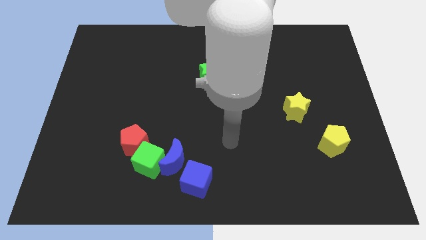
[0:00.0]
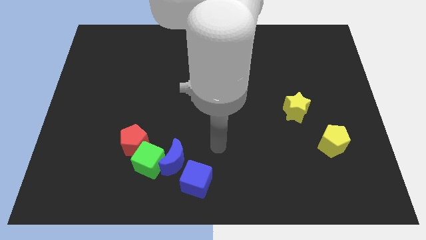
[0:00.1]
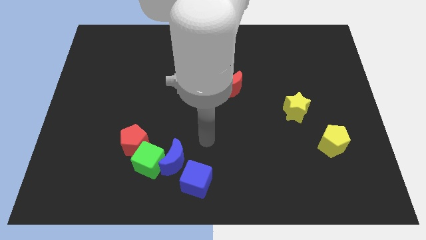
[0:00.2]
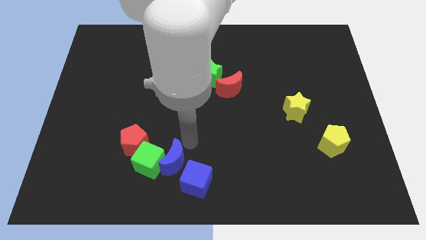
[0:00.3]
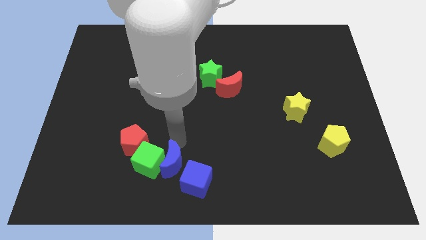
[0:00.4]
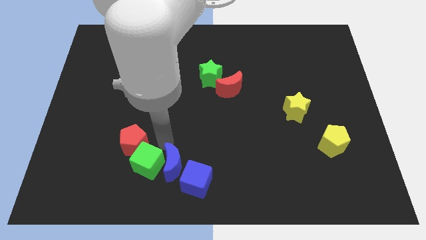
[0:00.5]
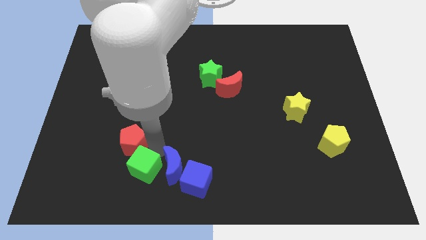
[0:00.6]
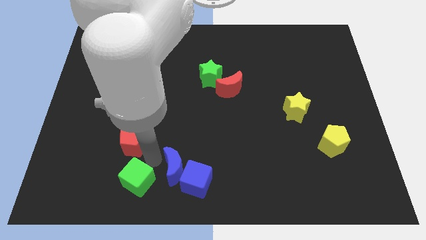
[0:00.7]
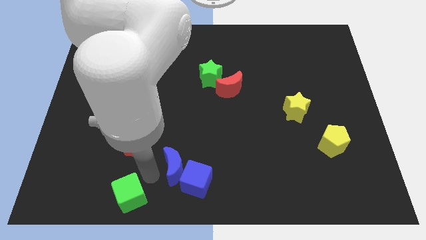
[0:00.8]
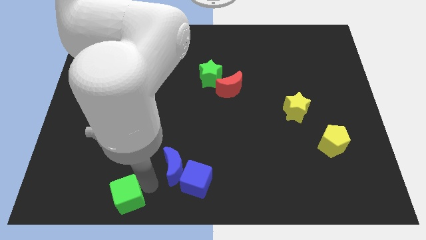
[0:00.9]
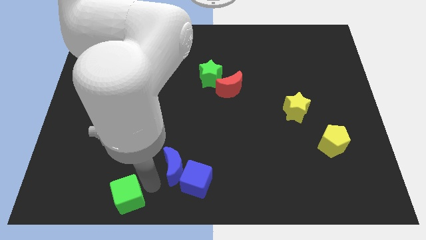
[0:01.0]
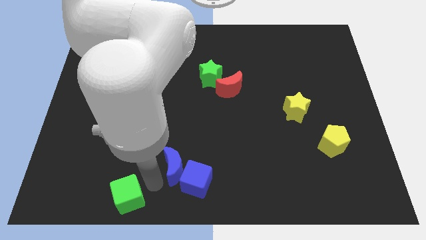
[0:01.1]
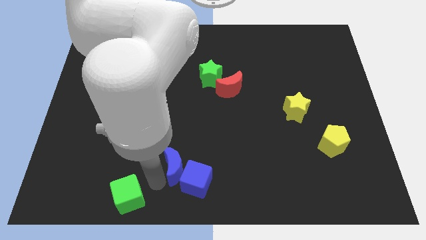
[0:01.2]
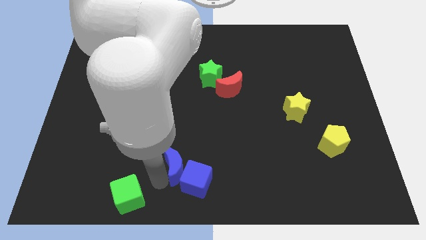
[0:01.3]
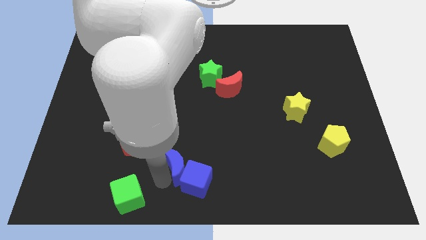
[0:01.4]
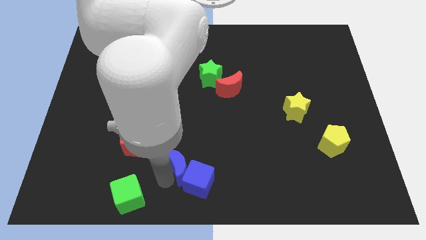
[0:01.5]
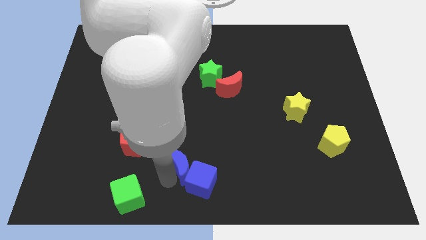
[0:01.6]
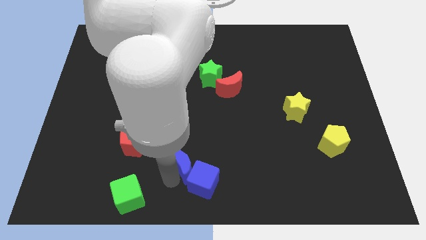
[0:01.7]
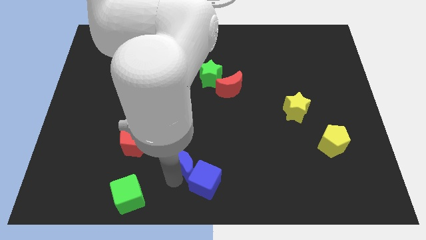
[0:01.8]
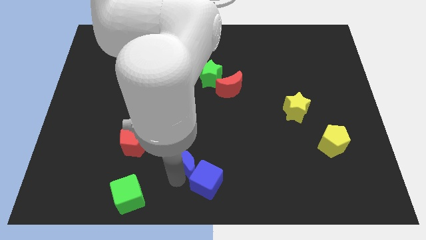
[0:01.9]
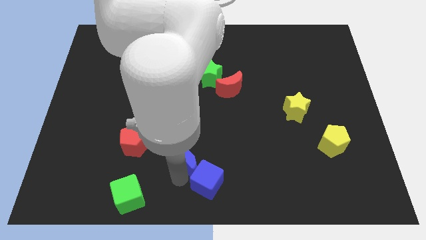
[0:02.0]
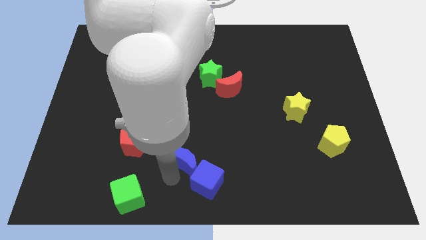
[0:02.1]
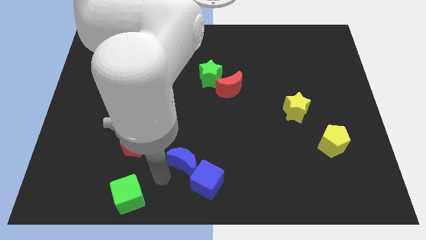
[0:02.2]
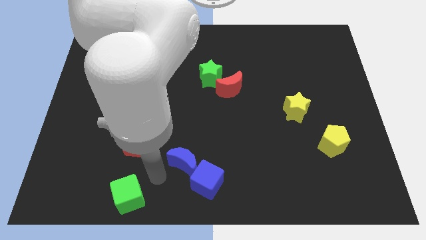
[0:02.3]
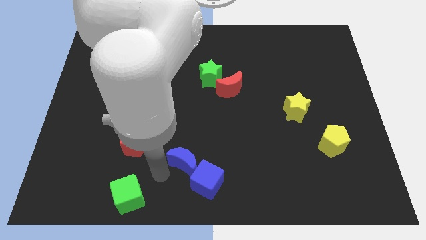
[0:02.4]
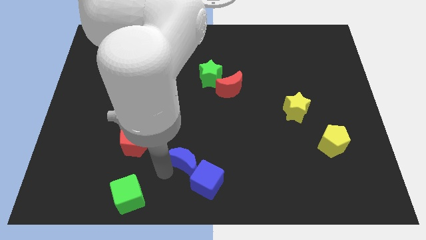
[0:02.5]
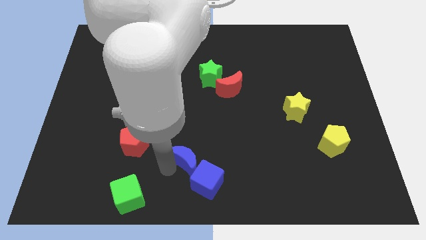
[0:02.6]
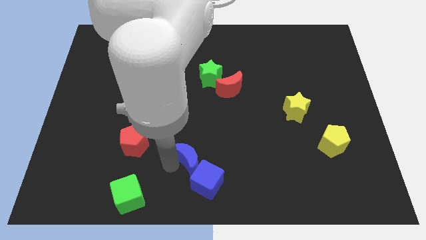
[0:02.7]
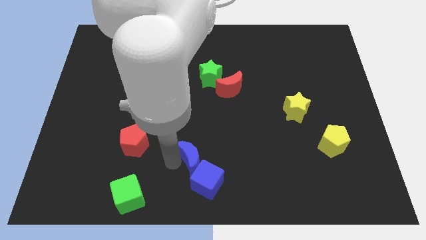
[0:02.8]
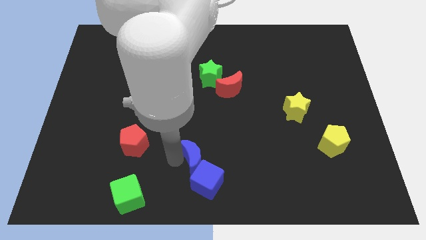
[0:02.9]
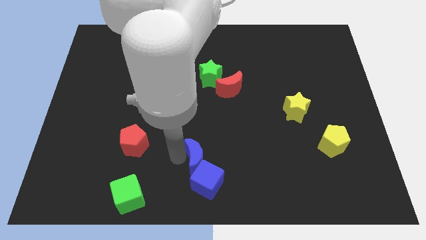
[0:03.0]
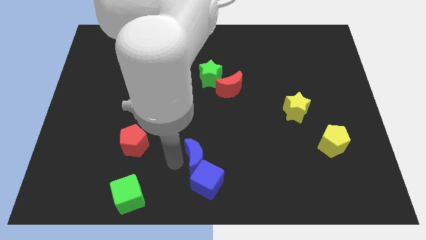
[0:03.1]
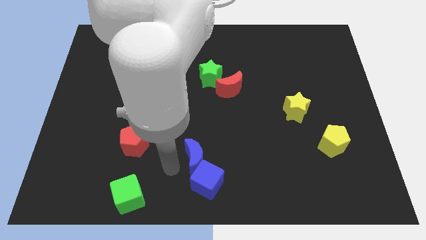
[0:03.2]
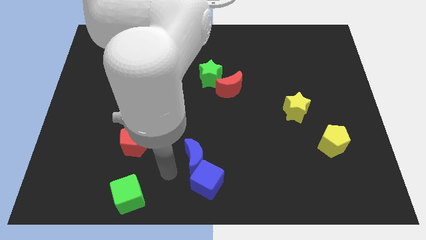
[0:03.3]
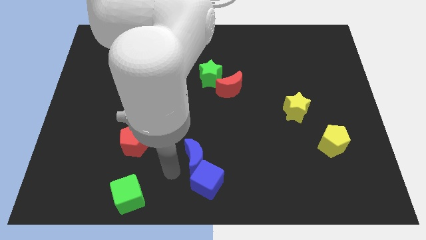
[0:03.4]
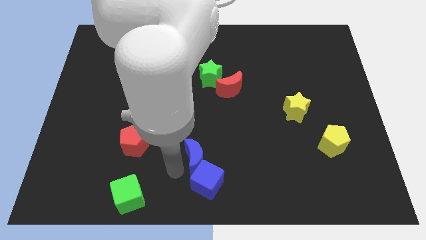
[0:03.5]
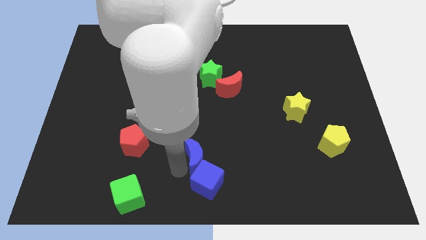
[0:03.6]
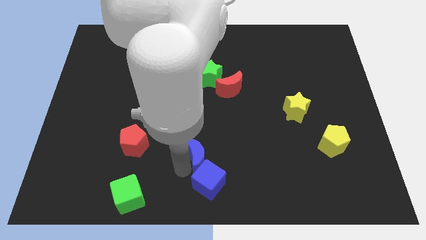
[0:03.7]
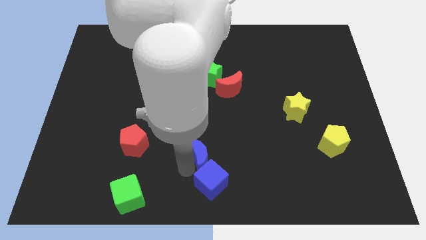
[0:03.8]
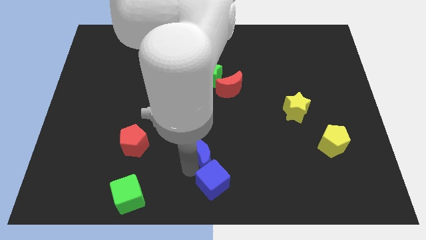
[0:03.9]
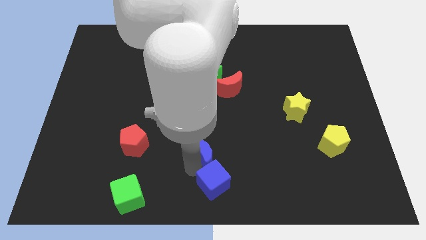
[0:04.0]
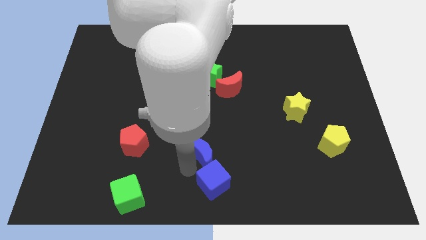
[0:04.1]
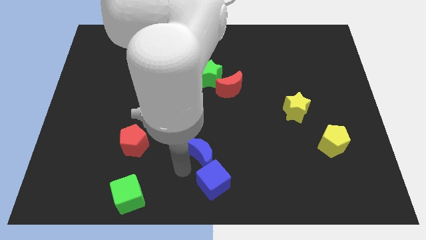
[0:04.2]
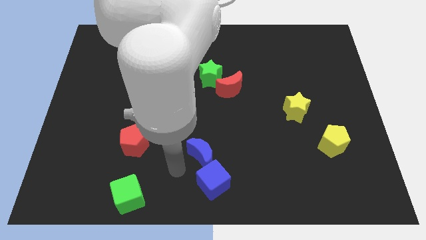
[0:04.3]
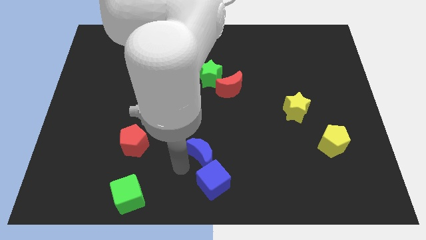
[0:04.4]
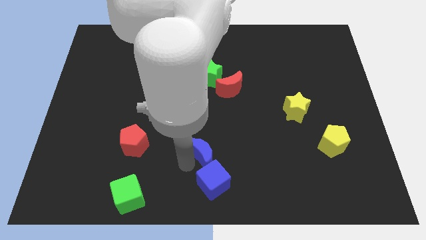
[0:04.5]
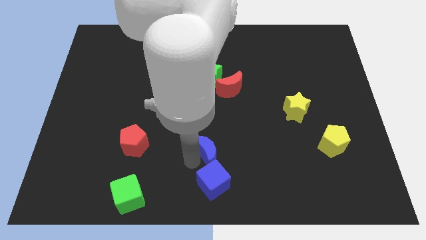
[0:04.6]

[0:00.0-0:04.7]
move the blue moon to the right somewhat

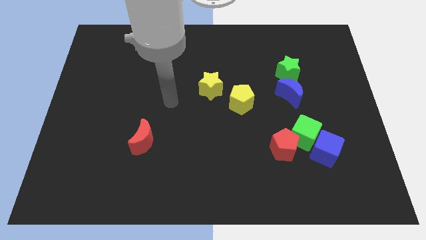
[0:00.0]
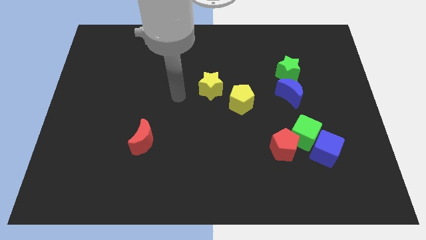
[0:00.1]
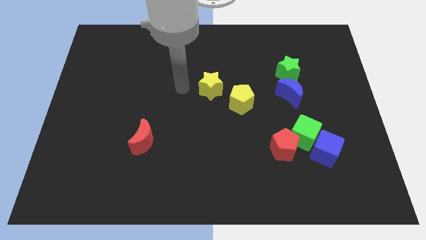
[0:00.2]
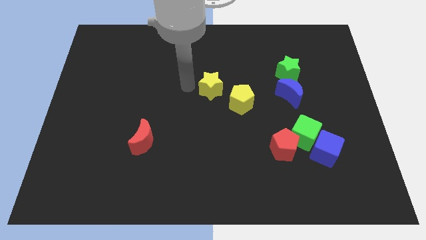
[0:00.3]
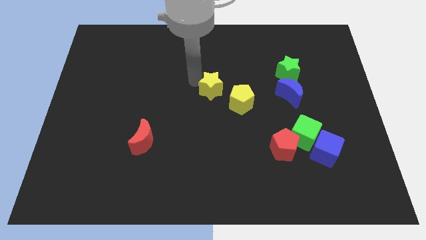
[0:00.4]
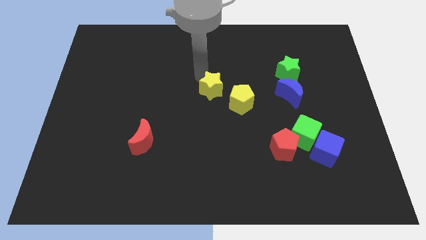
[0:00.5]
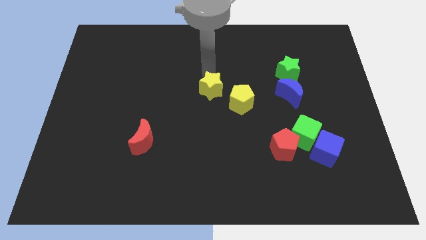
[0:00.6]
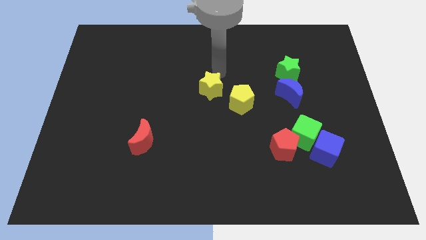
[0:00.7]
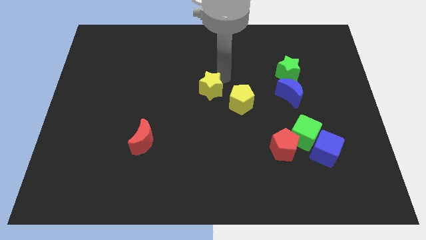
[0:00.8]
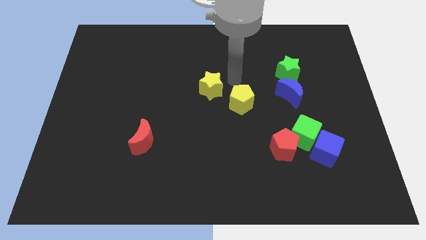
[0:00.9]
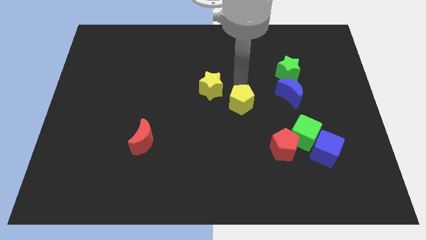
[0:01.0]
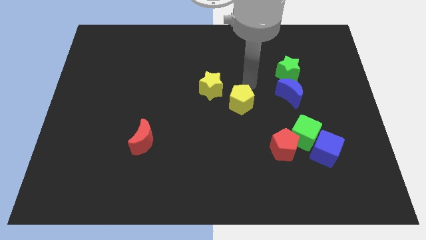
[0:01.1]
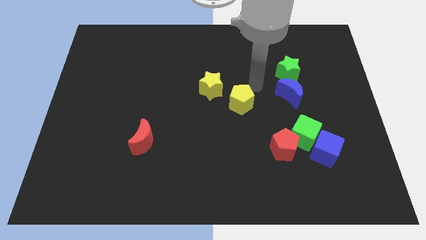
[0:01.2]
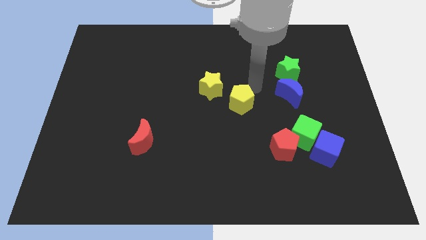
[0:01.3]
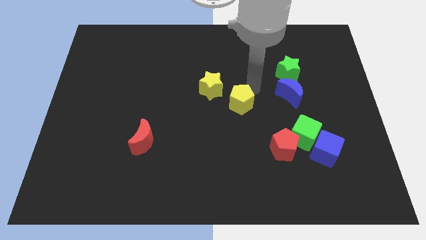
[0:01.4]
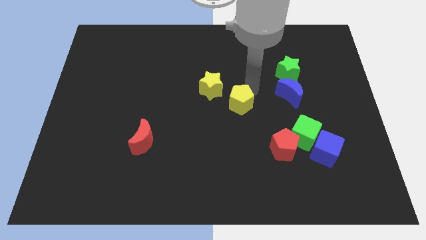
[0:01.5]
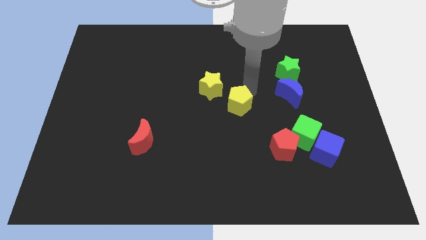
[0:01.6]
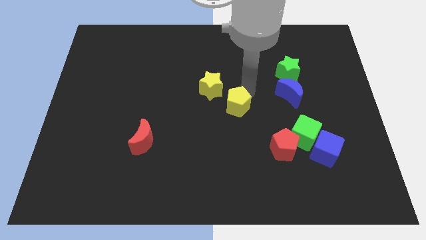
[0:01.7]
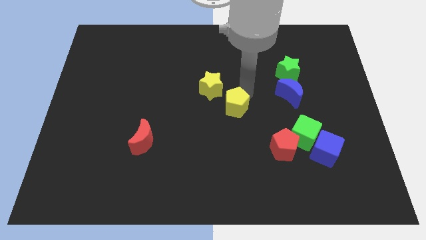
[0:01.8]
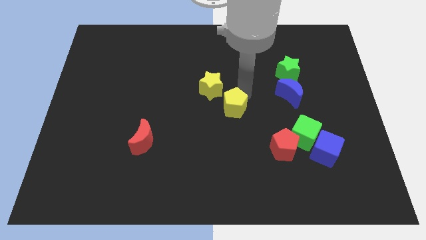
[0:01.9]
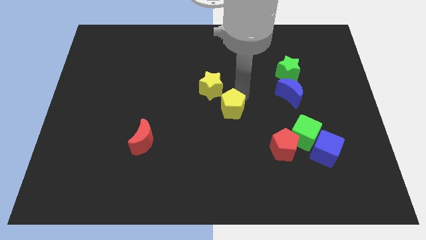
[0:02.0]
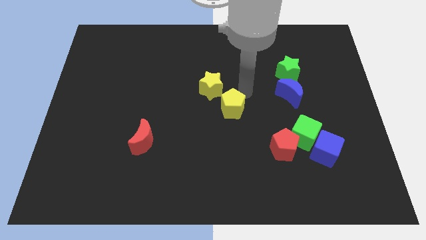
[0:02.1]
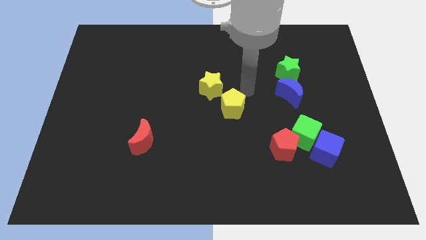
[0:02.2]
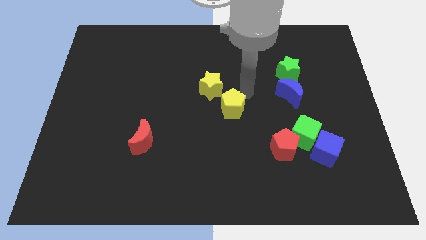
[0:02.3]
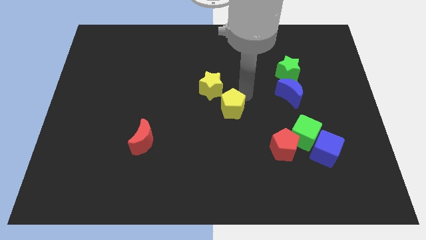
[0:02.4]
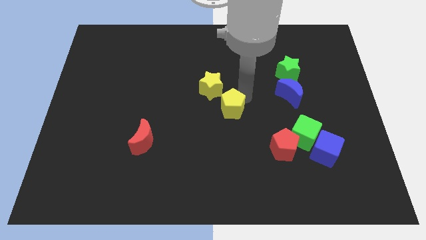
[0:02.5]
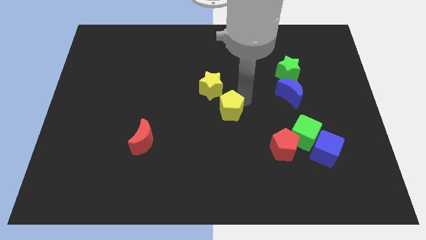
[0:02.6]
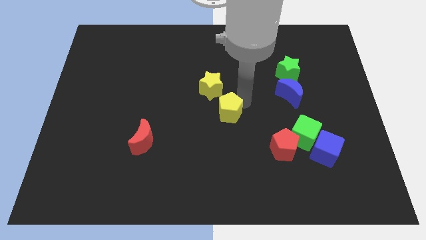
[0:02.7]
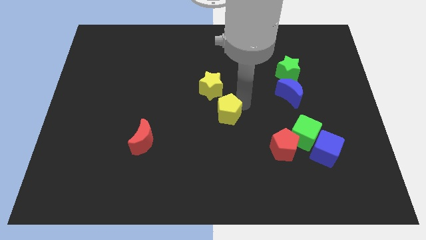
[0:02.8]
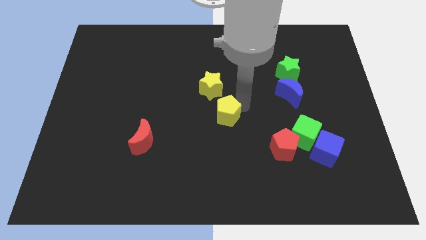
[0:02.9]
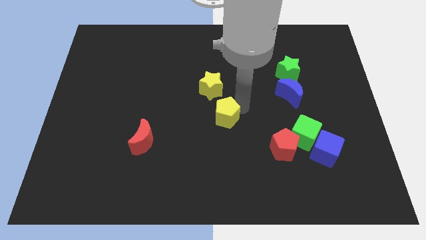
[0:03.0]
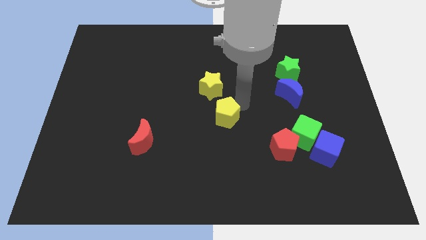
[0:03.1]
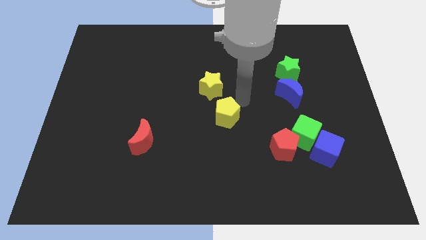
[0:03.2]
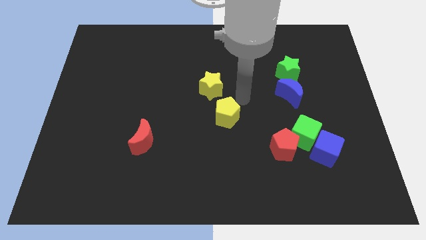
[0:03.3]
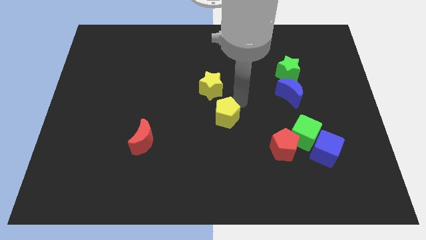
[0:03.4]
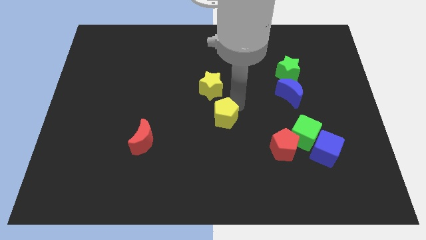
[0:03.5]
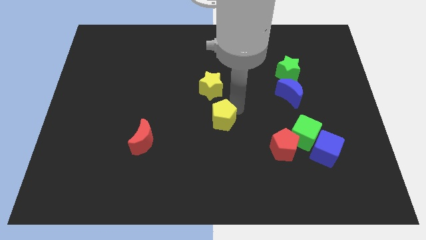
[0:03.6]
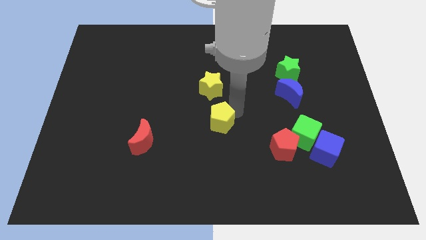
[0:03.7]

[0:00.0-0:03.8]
slightly slide the yellow pentagon diagonally downwards and to the left
